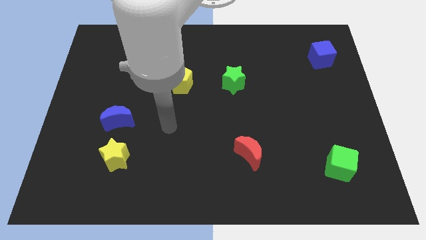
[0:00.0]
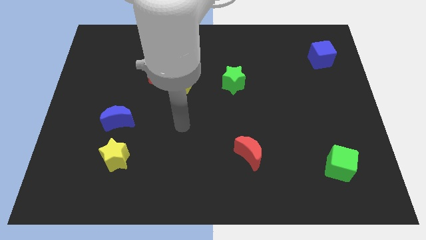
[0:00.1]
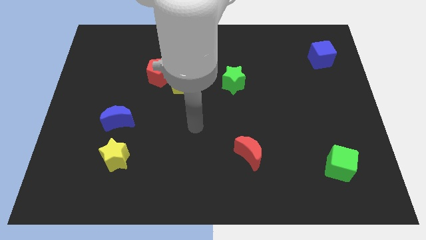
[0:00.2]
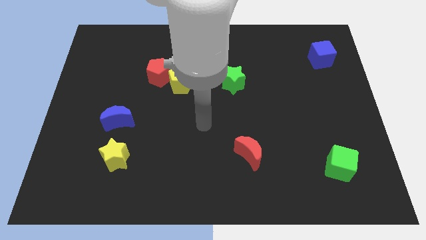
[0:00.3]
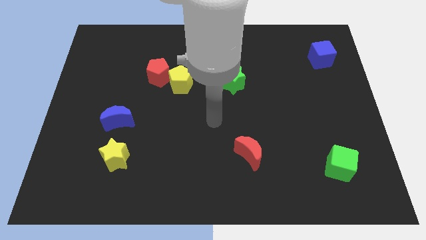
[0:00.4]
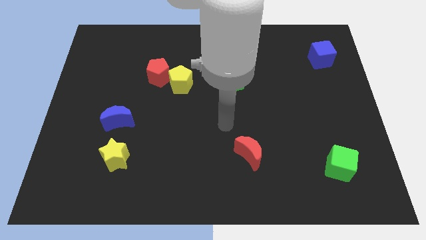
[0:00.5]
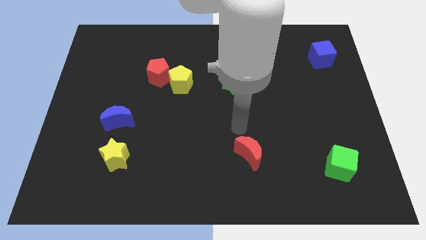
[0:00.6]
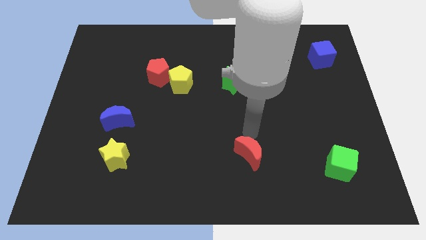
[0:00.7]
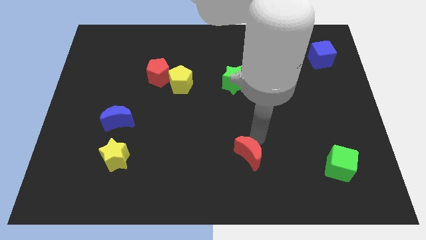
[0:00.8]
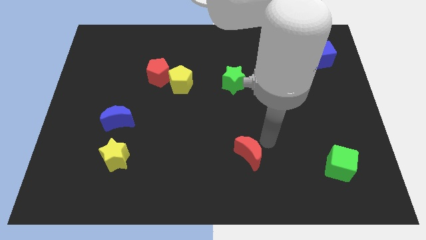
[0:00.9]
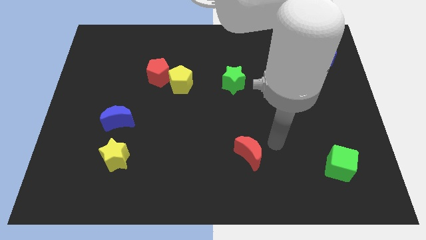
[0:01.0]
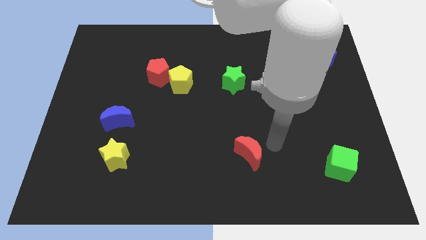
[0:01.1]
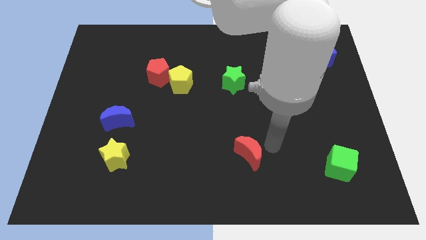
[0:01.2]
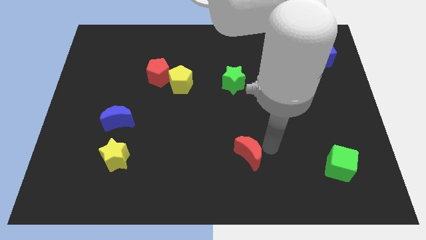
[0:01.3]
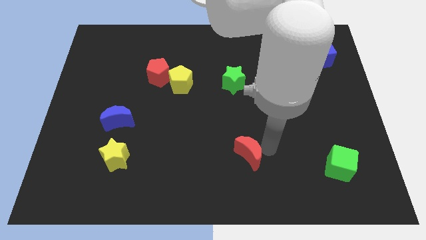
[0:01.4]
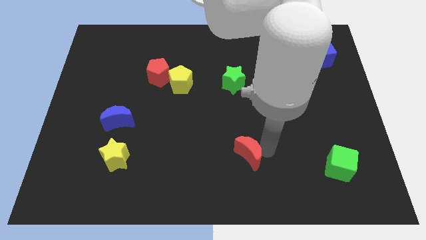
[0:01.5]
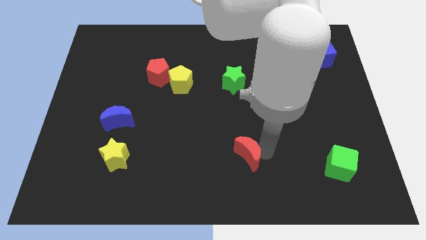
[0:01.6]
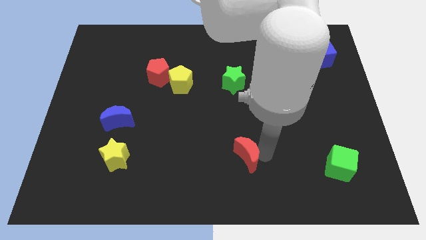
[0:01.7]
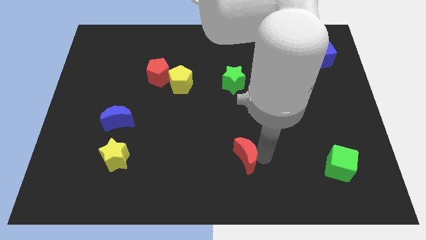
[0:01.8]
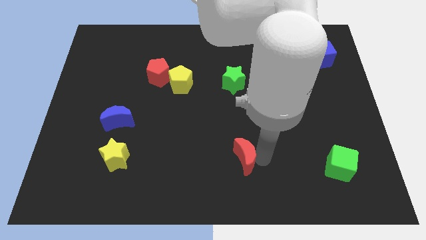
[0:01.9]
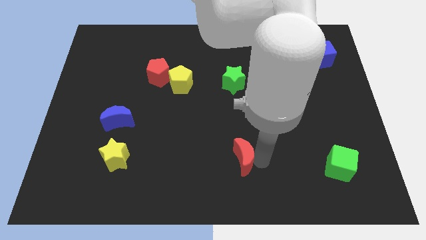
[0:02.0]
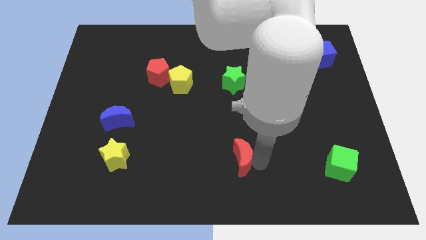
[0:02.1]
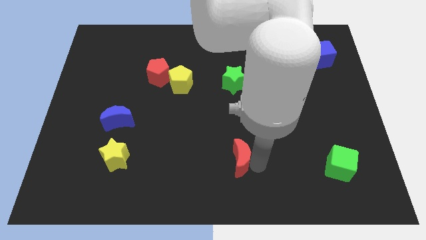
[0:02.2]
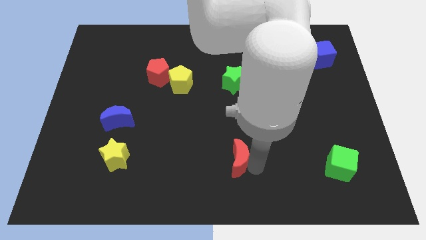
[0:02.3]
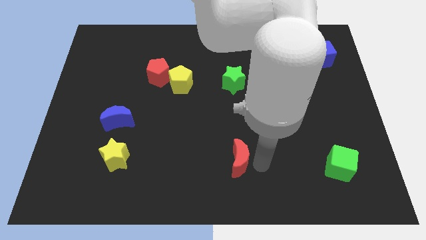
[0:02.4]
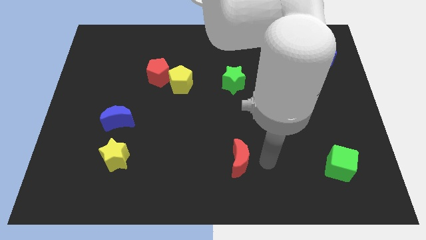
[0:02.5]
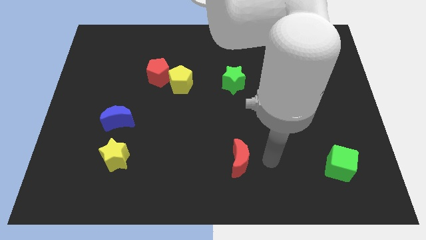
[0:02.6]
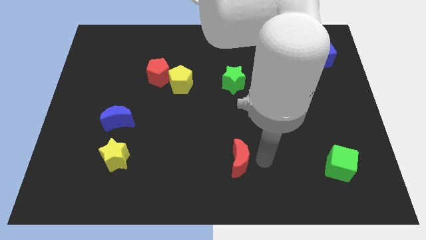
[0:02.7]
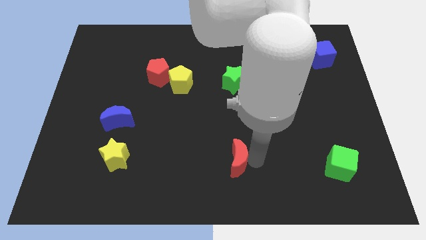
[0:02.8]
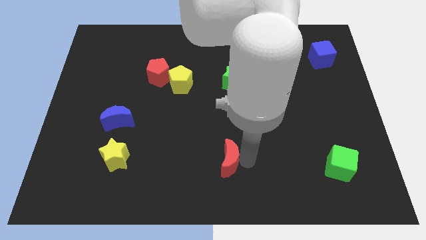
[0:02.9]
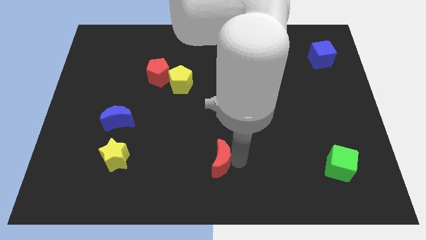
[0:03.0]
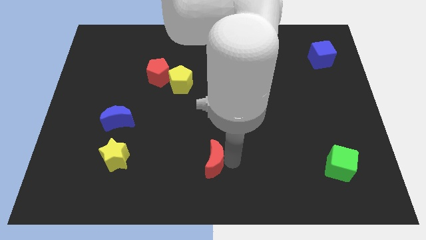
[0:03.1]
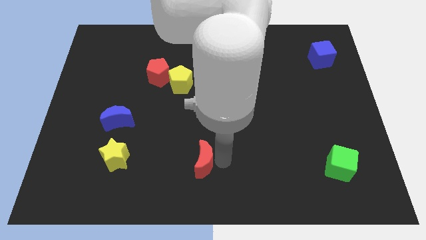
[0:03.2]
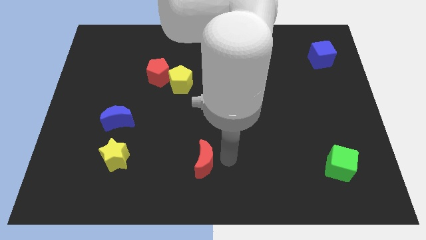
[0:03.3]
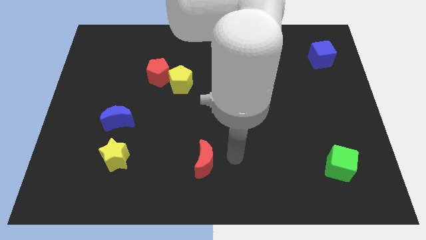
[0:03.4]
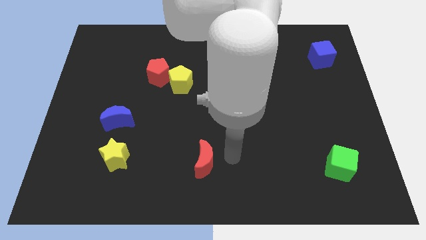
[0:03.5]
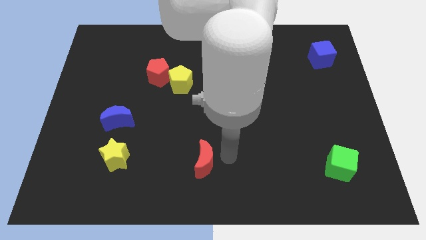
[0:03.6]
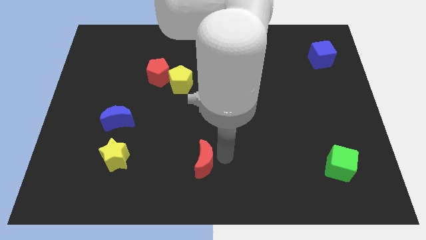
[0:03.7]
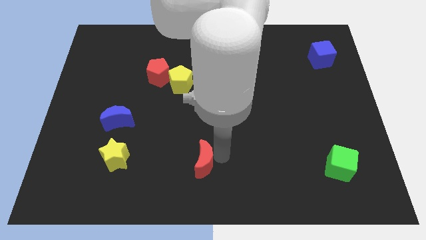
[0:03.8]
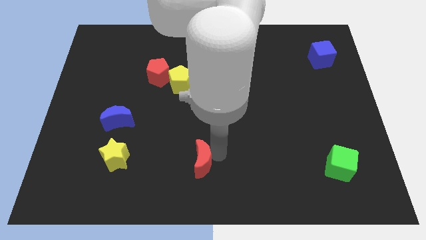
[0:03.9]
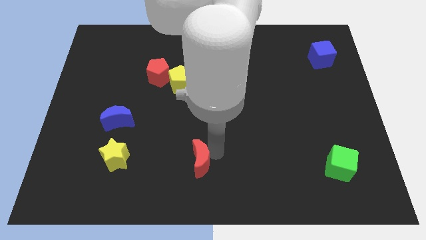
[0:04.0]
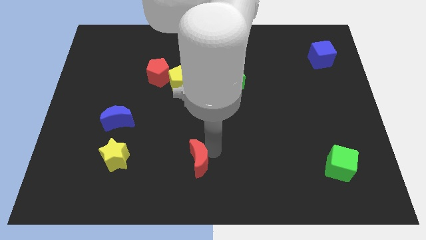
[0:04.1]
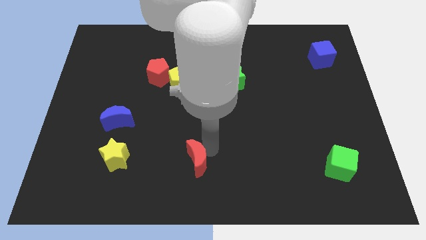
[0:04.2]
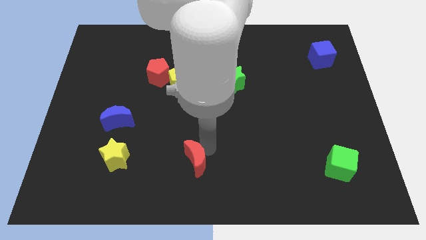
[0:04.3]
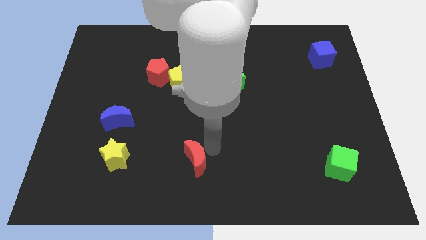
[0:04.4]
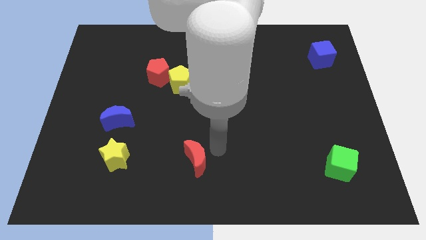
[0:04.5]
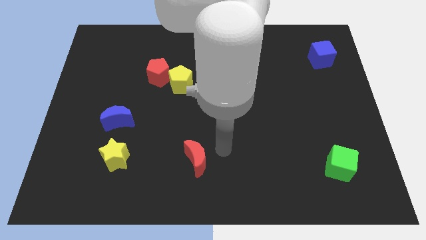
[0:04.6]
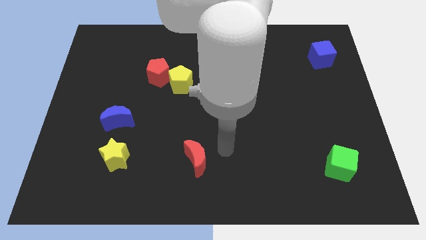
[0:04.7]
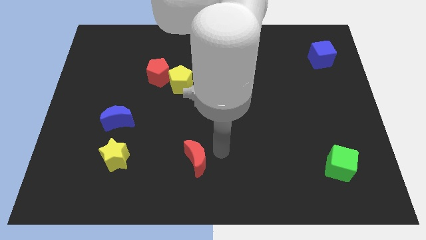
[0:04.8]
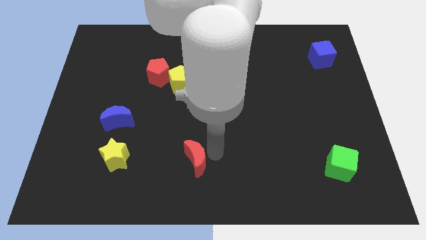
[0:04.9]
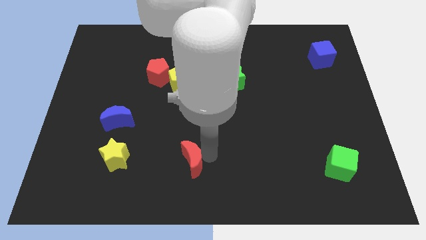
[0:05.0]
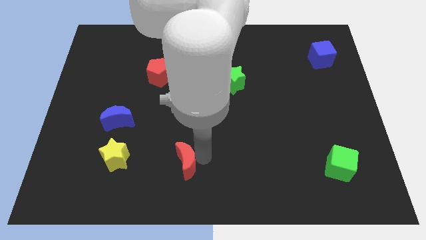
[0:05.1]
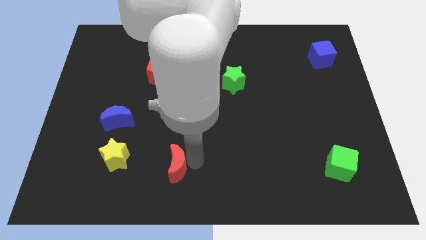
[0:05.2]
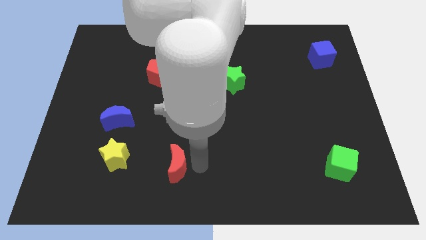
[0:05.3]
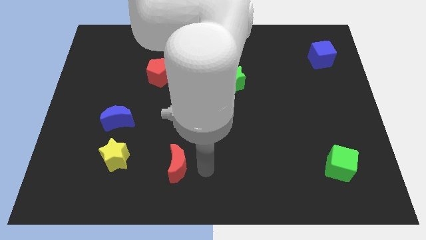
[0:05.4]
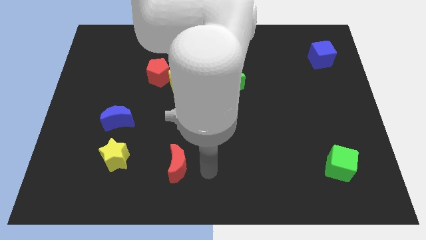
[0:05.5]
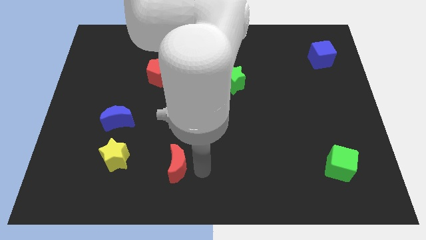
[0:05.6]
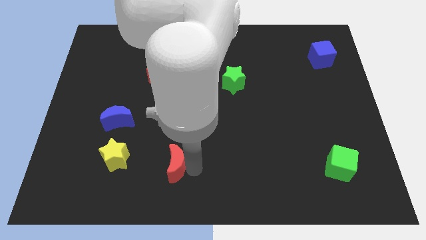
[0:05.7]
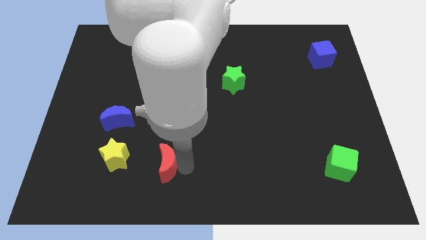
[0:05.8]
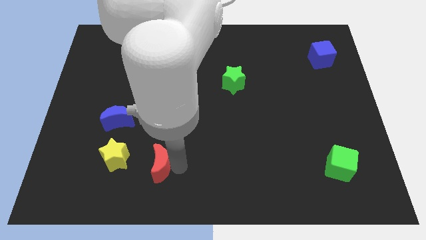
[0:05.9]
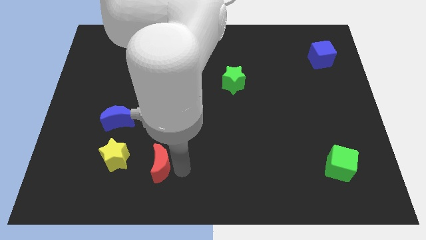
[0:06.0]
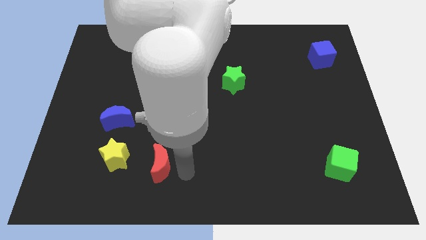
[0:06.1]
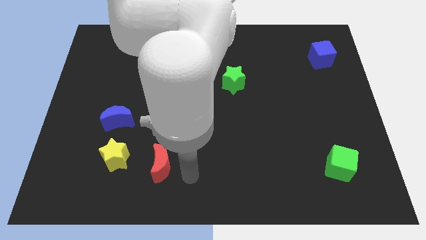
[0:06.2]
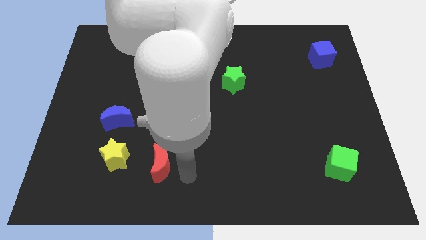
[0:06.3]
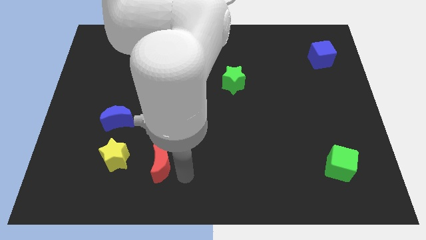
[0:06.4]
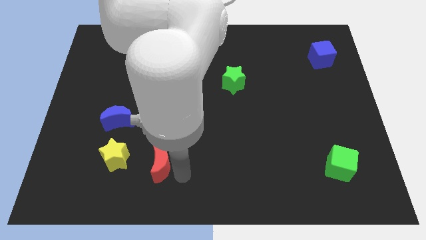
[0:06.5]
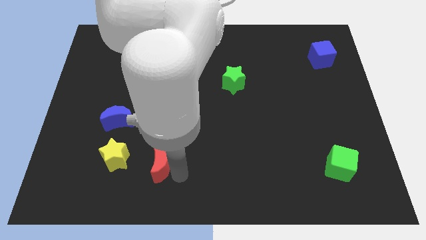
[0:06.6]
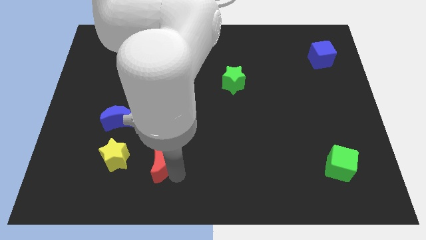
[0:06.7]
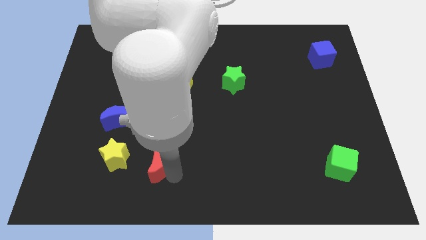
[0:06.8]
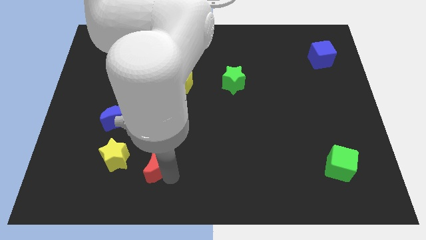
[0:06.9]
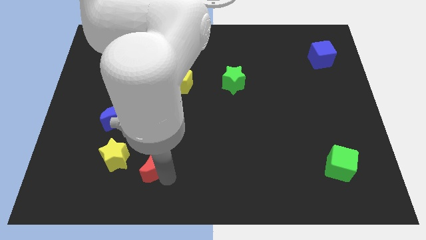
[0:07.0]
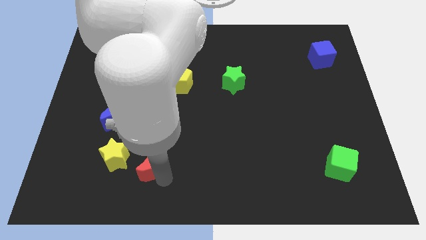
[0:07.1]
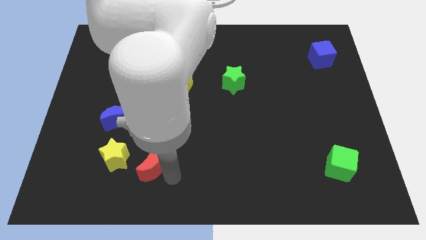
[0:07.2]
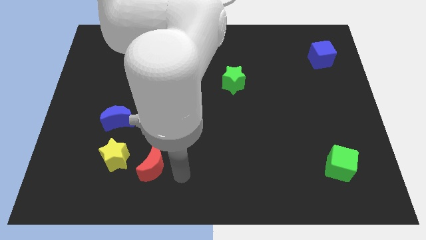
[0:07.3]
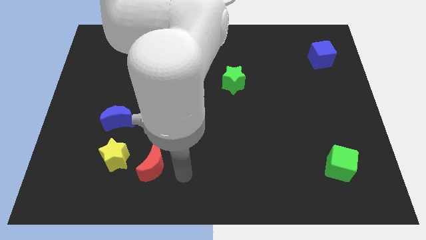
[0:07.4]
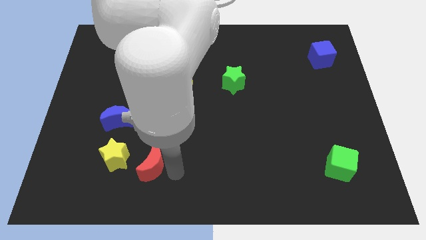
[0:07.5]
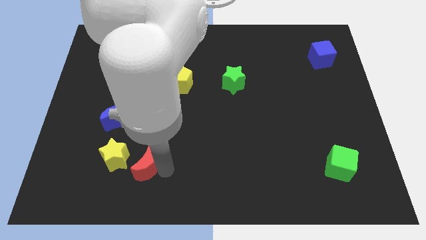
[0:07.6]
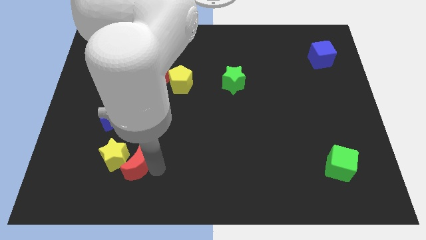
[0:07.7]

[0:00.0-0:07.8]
slide the red moon close to the yellow star
